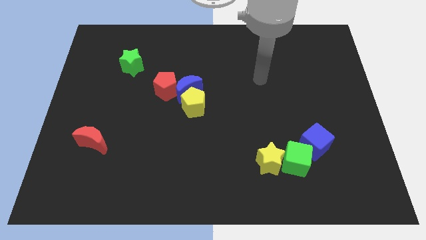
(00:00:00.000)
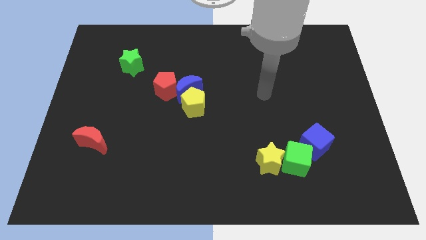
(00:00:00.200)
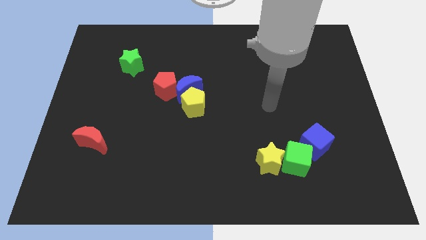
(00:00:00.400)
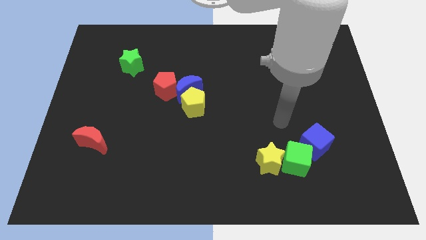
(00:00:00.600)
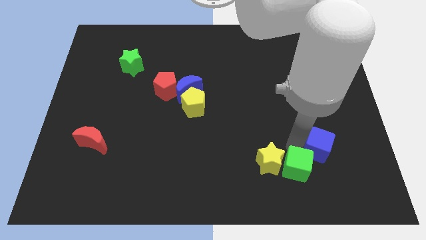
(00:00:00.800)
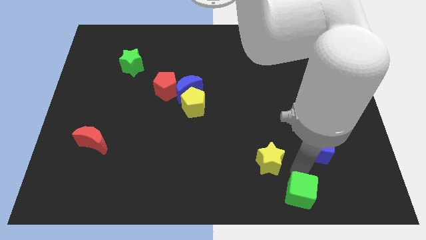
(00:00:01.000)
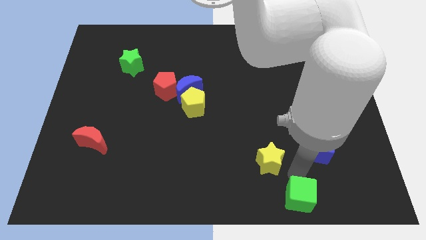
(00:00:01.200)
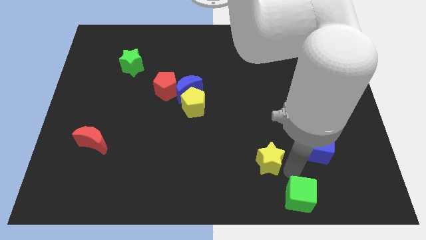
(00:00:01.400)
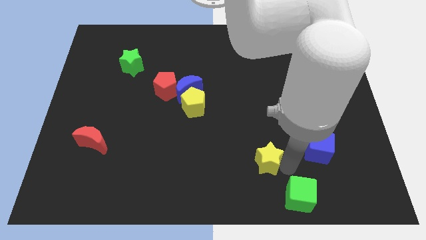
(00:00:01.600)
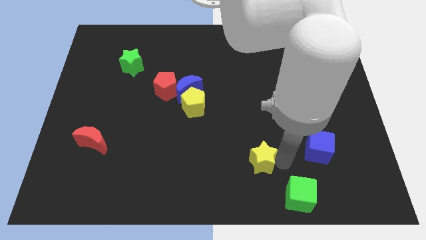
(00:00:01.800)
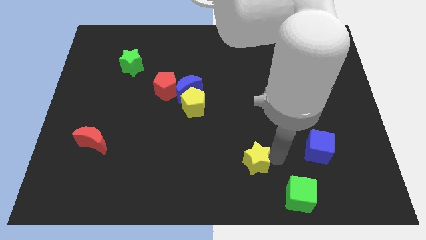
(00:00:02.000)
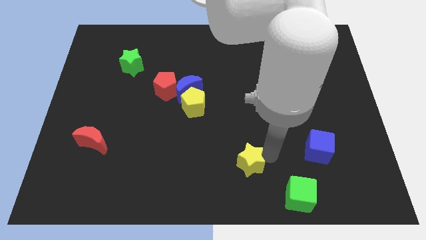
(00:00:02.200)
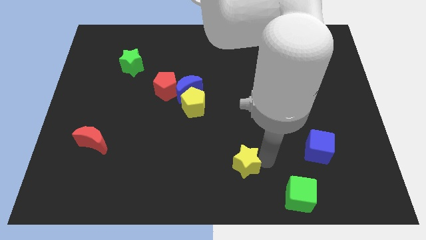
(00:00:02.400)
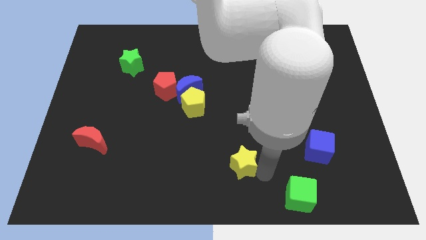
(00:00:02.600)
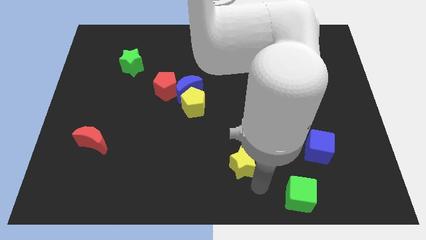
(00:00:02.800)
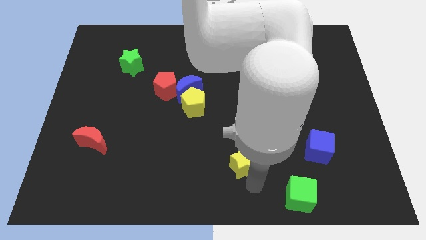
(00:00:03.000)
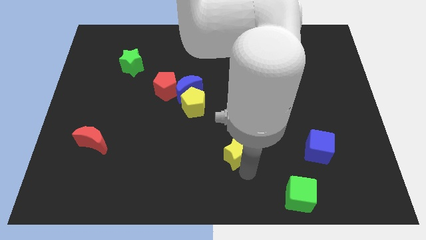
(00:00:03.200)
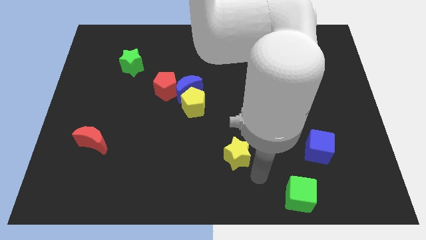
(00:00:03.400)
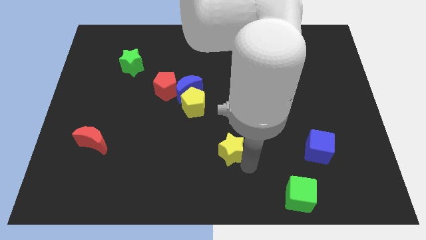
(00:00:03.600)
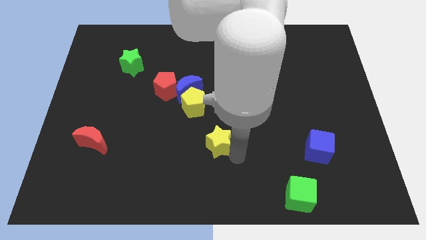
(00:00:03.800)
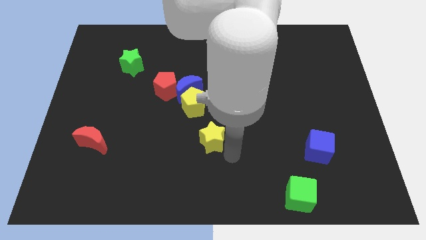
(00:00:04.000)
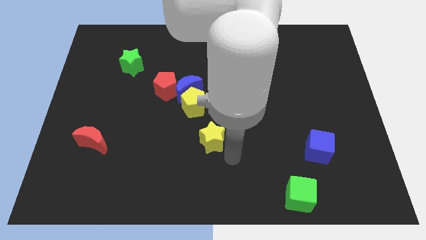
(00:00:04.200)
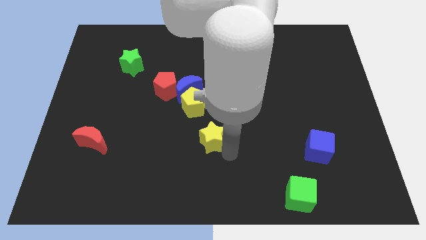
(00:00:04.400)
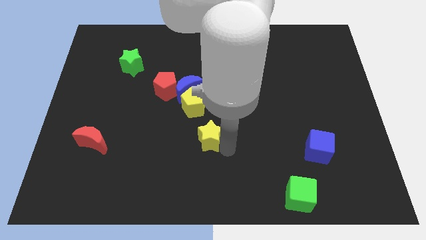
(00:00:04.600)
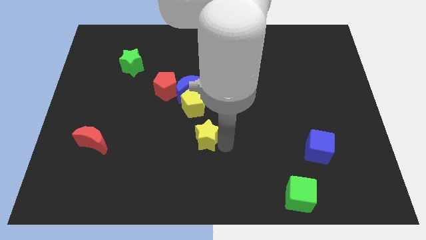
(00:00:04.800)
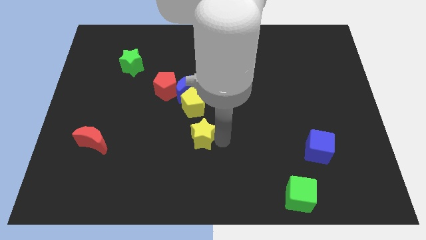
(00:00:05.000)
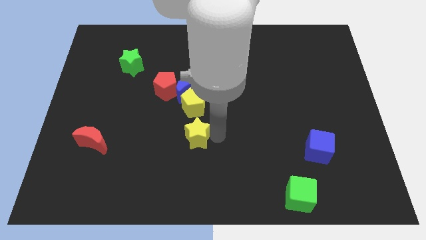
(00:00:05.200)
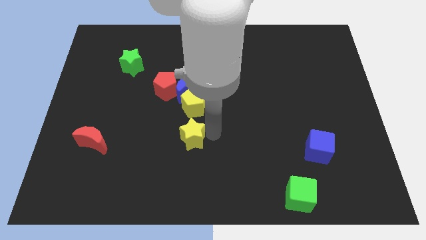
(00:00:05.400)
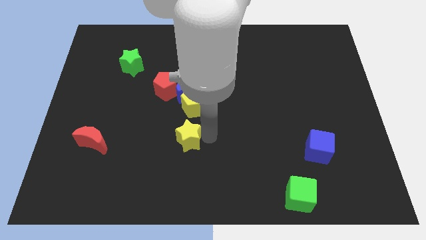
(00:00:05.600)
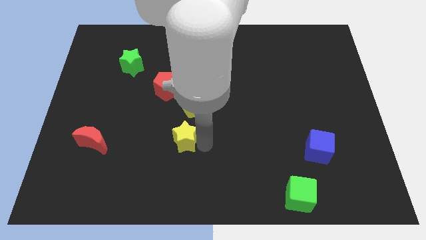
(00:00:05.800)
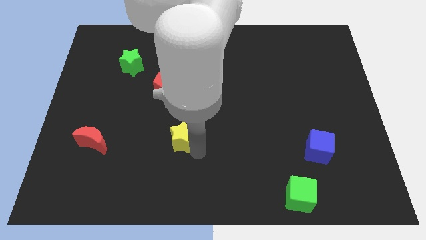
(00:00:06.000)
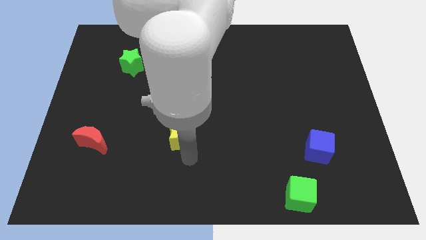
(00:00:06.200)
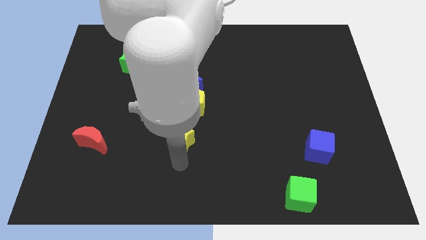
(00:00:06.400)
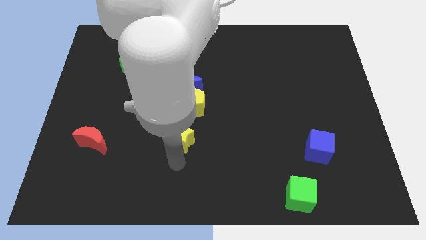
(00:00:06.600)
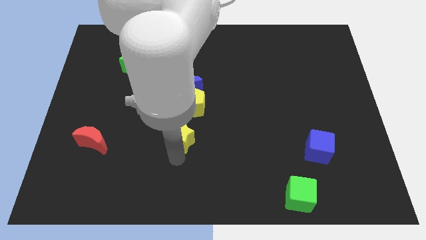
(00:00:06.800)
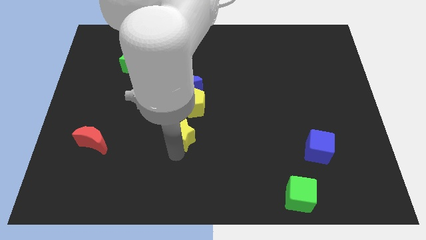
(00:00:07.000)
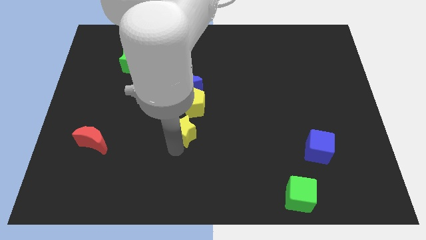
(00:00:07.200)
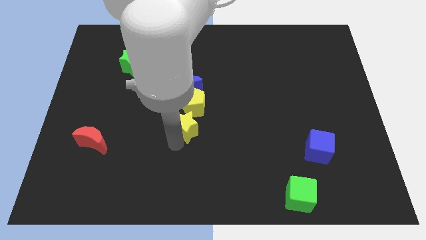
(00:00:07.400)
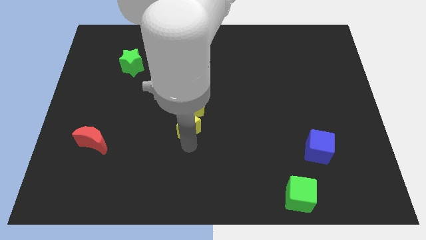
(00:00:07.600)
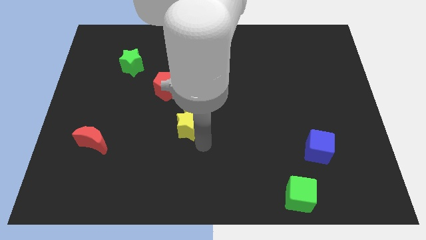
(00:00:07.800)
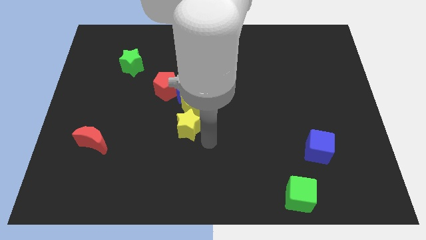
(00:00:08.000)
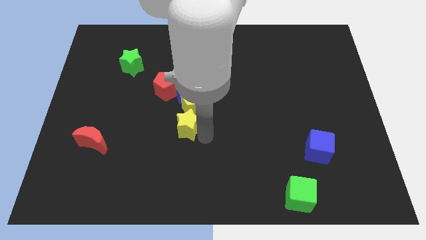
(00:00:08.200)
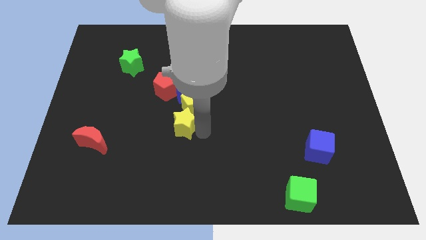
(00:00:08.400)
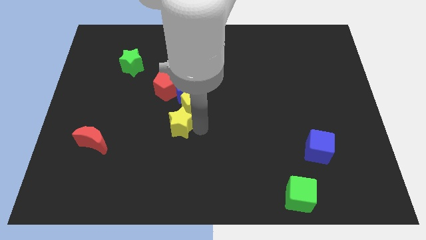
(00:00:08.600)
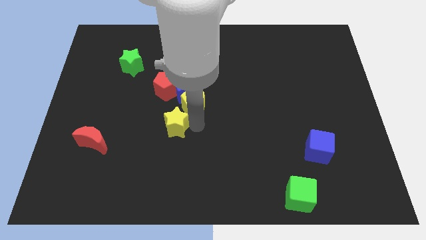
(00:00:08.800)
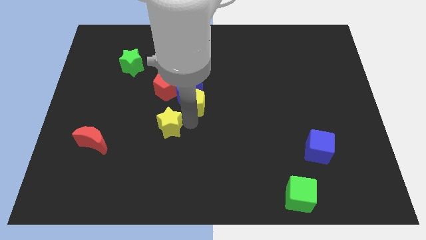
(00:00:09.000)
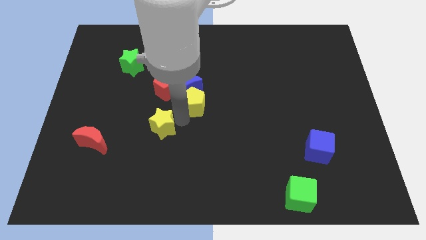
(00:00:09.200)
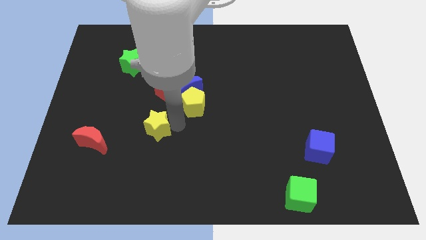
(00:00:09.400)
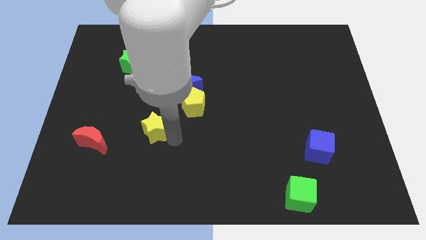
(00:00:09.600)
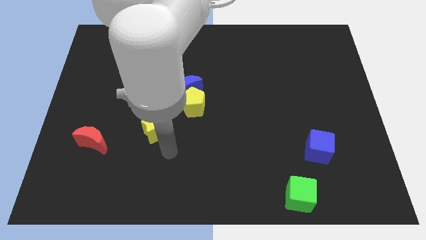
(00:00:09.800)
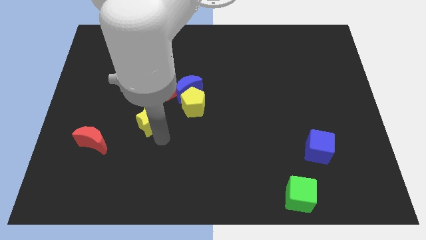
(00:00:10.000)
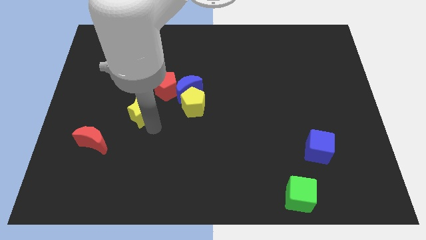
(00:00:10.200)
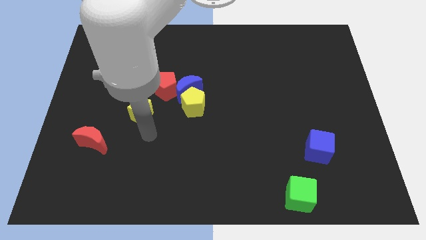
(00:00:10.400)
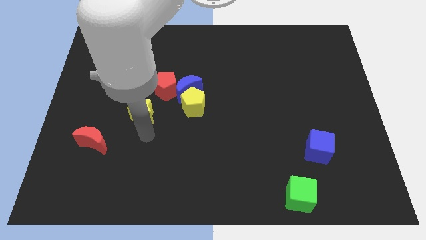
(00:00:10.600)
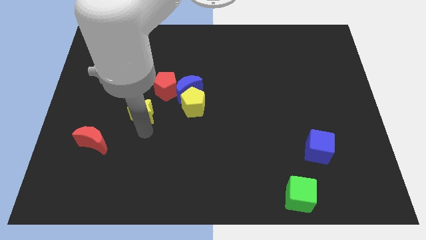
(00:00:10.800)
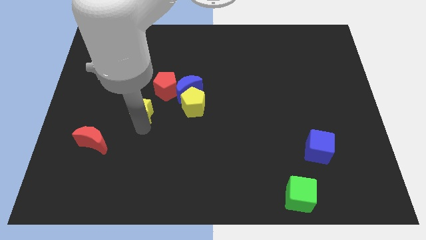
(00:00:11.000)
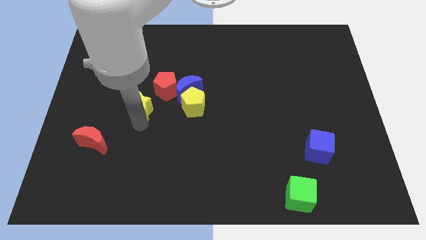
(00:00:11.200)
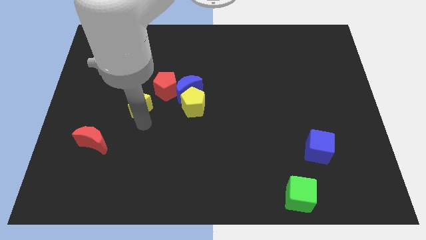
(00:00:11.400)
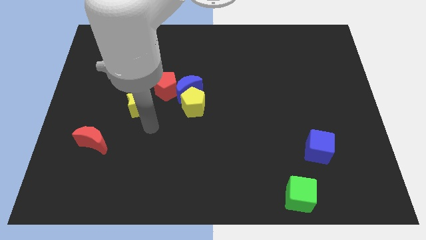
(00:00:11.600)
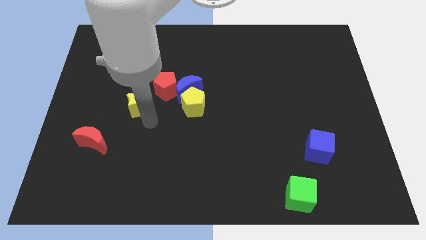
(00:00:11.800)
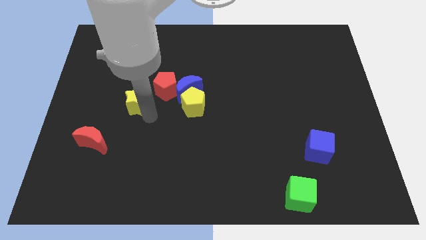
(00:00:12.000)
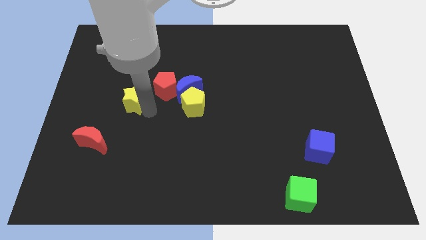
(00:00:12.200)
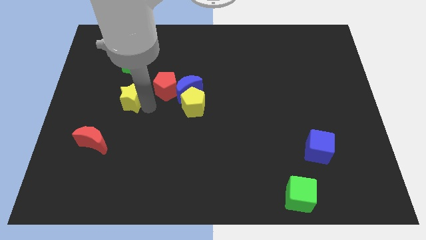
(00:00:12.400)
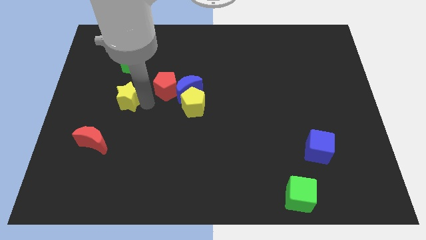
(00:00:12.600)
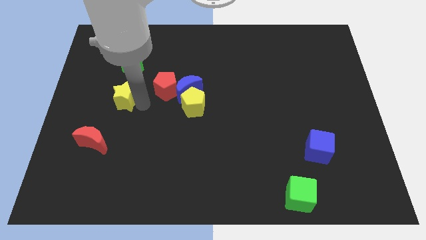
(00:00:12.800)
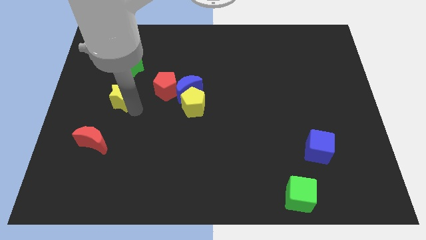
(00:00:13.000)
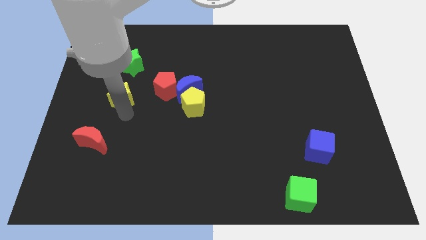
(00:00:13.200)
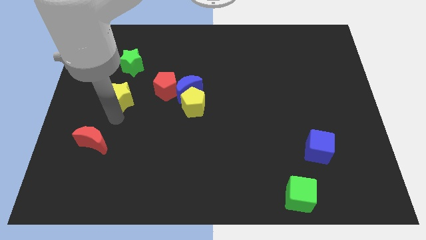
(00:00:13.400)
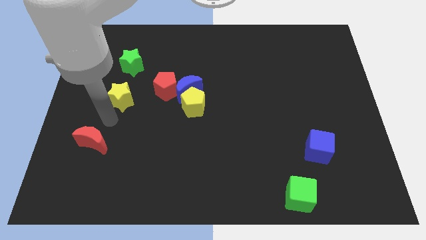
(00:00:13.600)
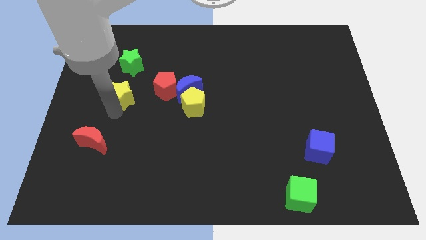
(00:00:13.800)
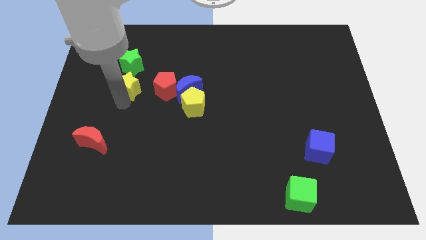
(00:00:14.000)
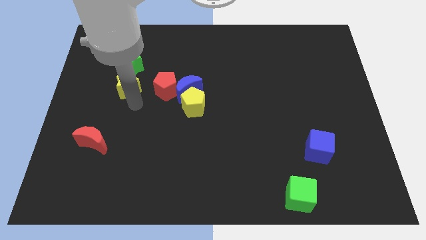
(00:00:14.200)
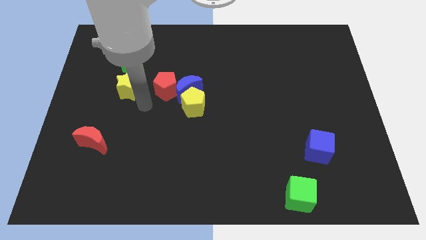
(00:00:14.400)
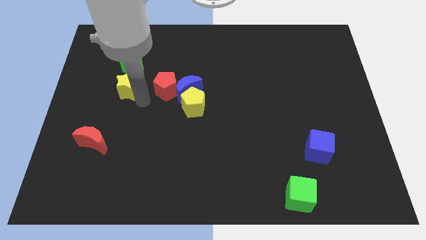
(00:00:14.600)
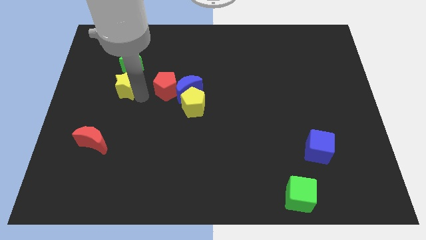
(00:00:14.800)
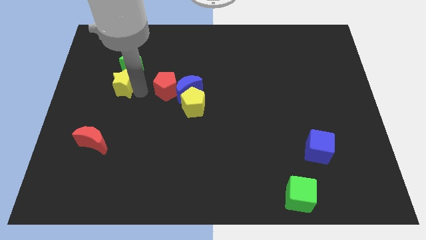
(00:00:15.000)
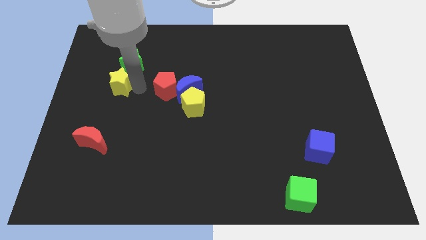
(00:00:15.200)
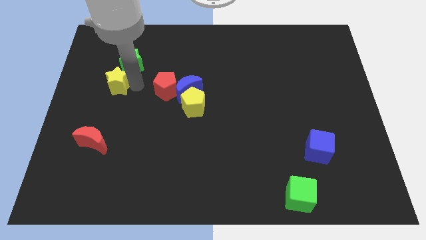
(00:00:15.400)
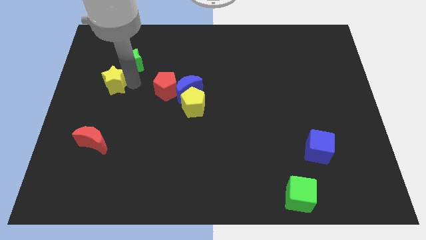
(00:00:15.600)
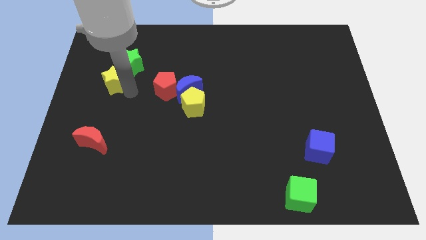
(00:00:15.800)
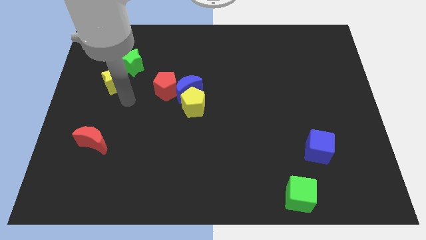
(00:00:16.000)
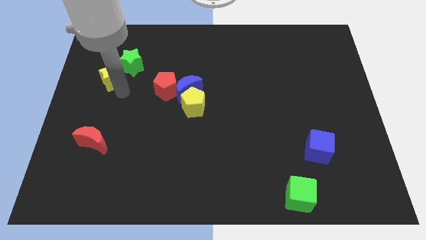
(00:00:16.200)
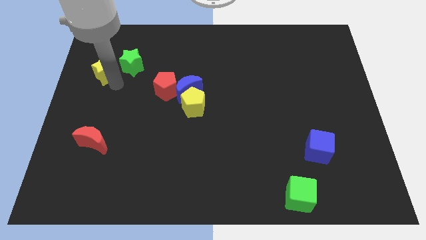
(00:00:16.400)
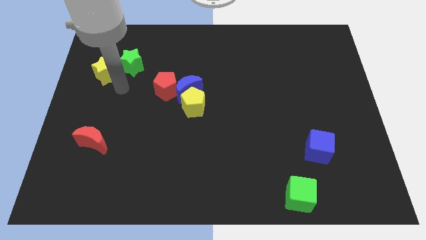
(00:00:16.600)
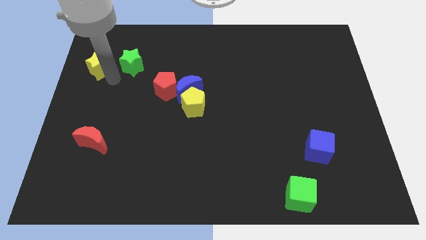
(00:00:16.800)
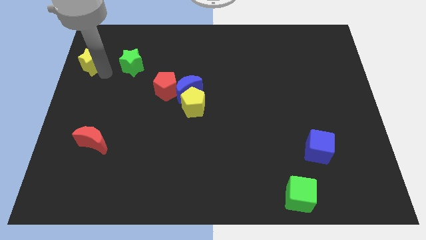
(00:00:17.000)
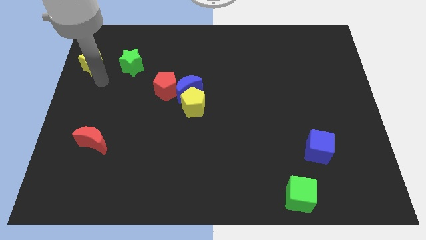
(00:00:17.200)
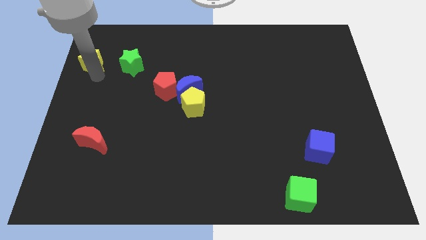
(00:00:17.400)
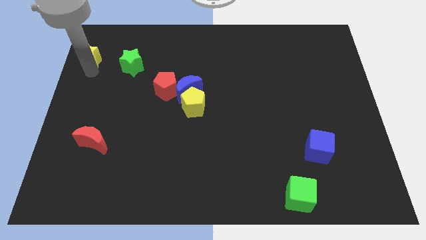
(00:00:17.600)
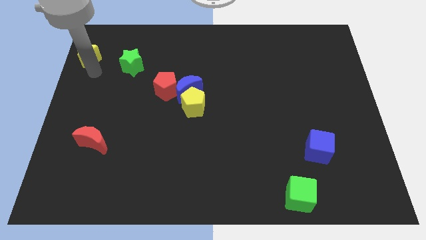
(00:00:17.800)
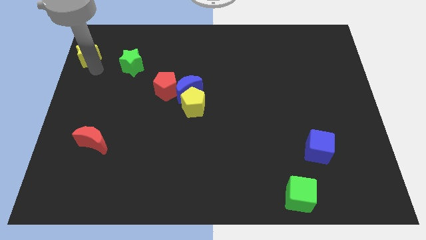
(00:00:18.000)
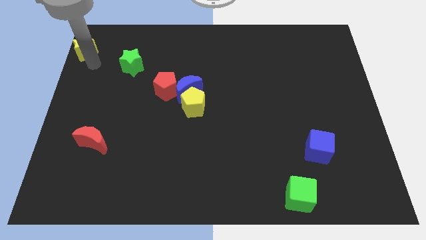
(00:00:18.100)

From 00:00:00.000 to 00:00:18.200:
slide the yellow star to the top left corner
